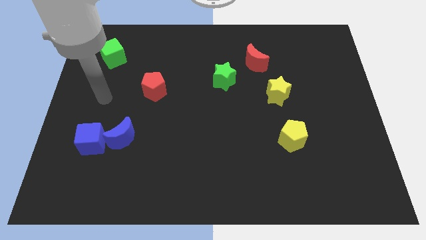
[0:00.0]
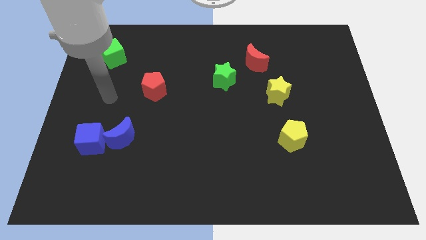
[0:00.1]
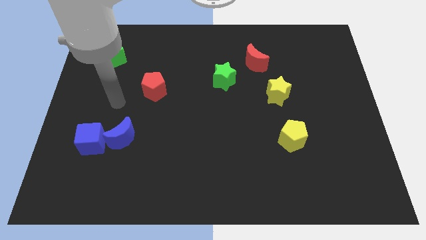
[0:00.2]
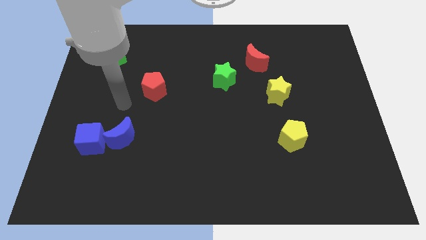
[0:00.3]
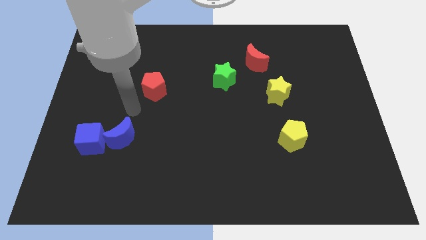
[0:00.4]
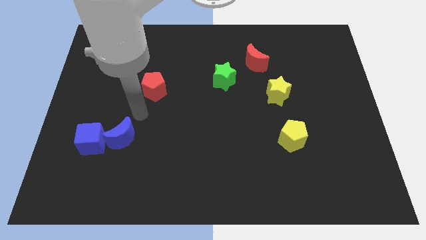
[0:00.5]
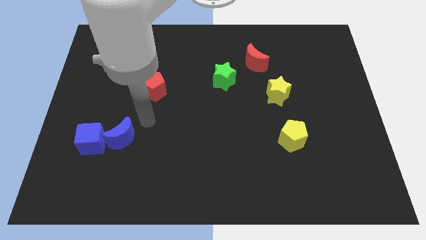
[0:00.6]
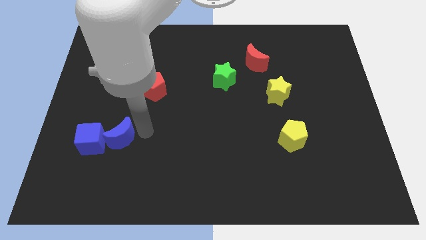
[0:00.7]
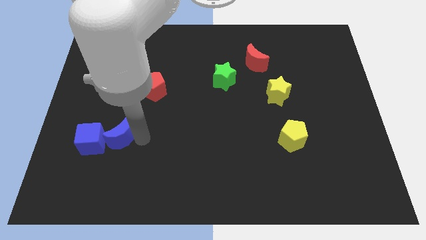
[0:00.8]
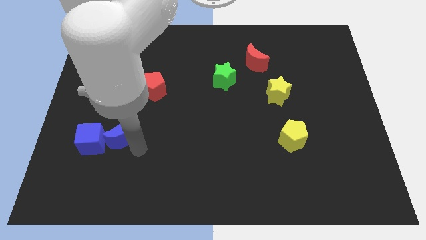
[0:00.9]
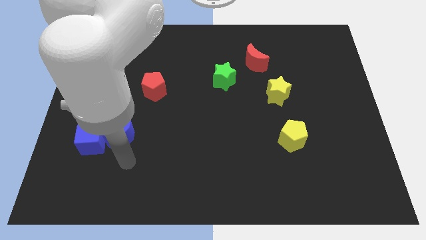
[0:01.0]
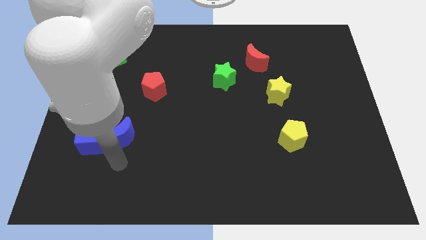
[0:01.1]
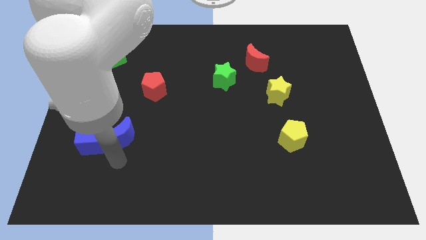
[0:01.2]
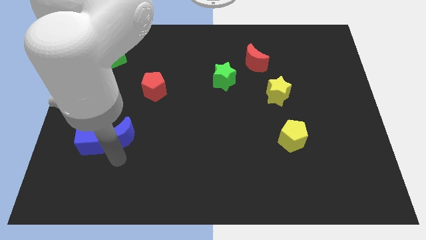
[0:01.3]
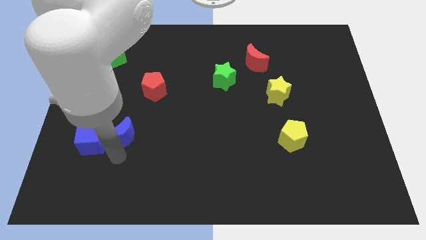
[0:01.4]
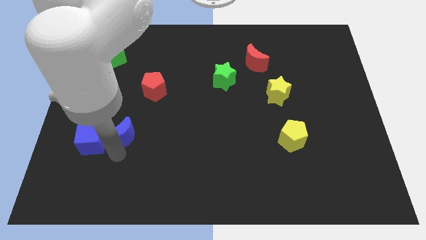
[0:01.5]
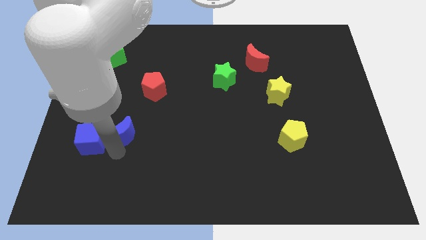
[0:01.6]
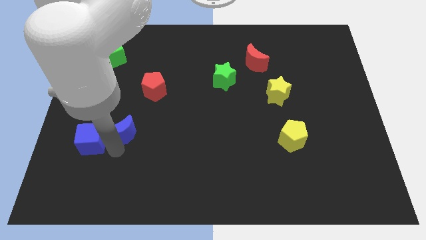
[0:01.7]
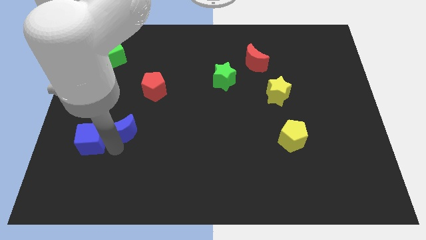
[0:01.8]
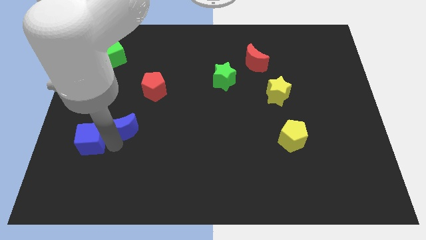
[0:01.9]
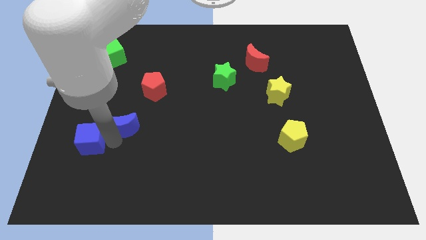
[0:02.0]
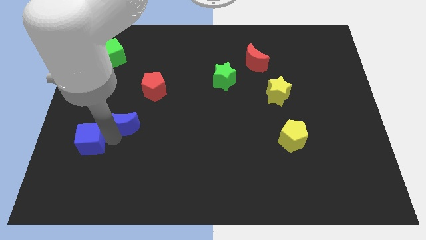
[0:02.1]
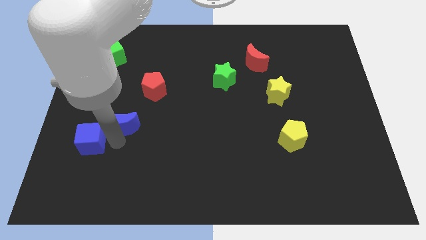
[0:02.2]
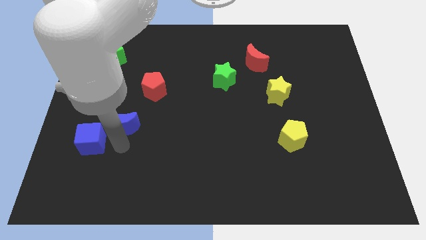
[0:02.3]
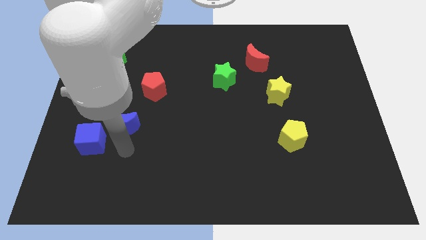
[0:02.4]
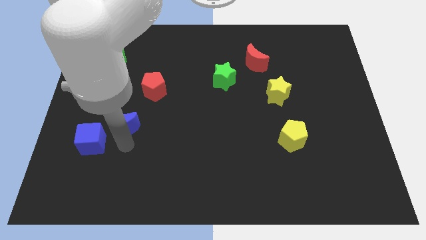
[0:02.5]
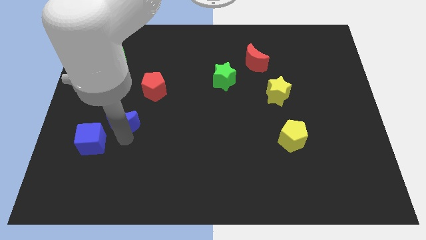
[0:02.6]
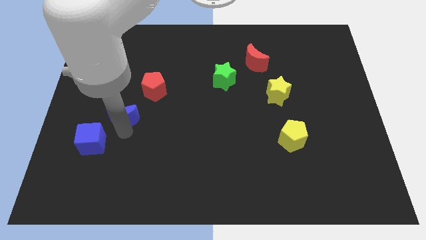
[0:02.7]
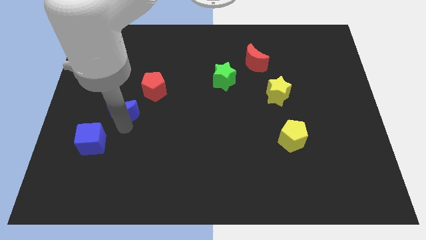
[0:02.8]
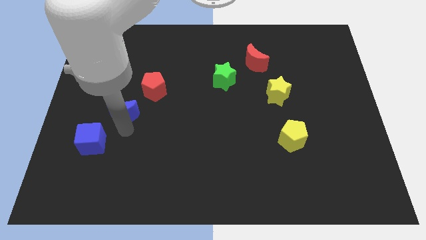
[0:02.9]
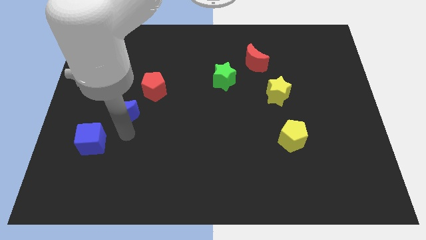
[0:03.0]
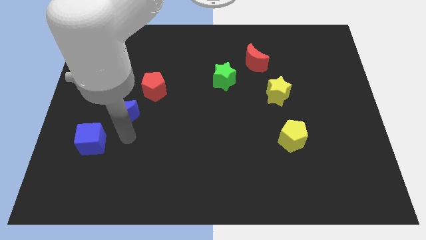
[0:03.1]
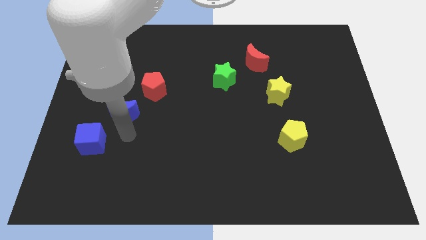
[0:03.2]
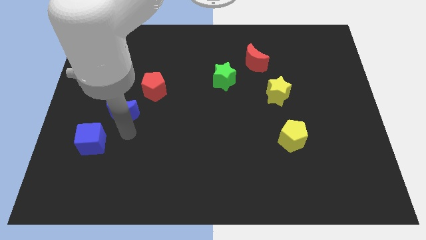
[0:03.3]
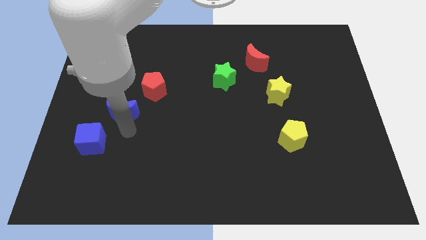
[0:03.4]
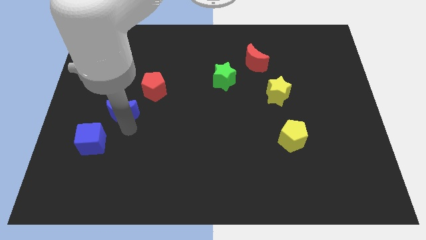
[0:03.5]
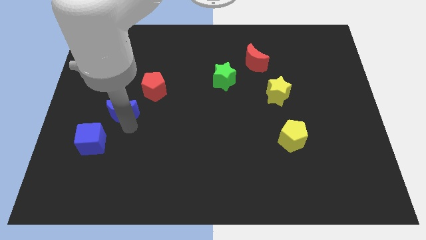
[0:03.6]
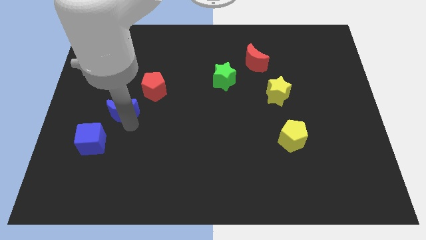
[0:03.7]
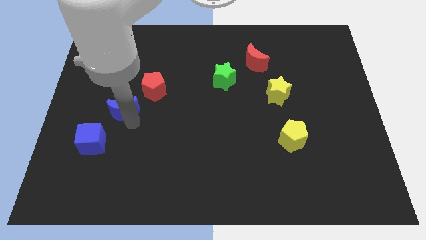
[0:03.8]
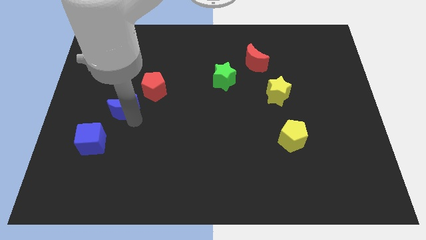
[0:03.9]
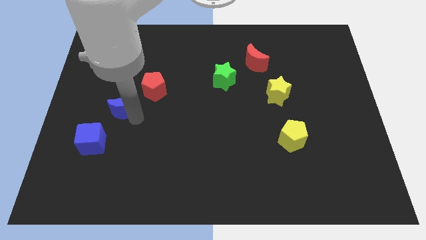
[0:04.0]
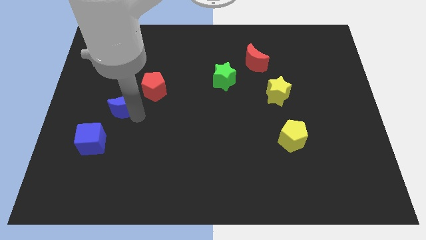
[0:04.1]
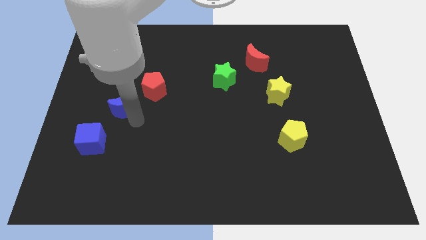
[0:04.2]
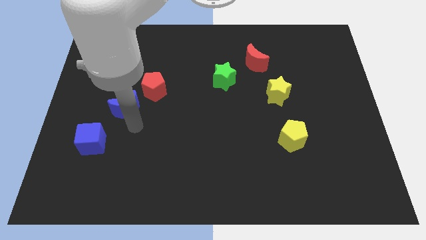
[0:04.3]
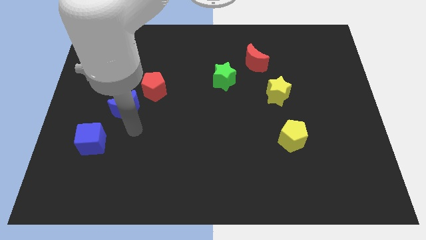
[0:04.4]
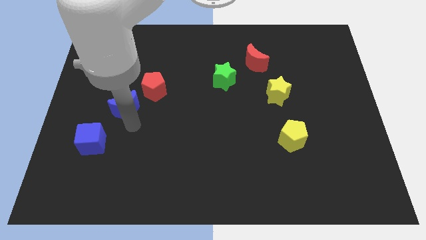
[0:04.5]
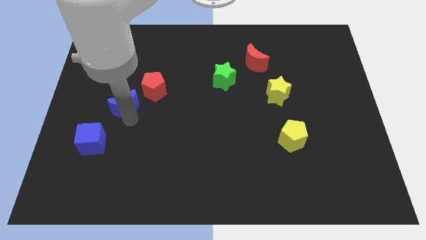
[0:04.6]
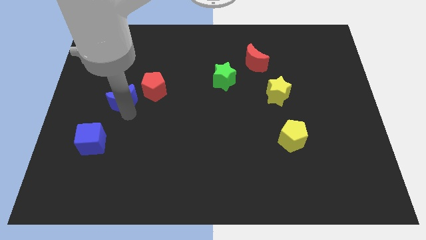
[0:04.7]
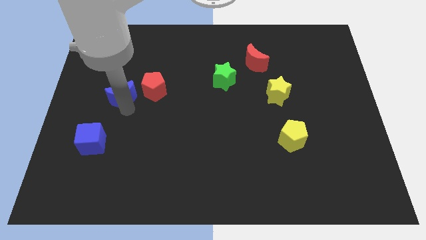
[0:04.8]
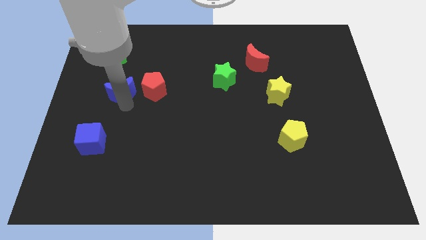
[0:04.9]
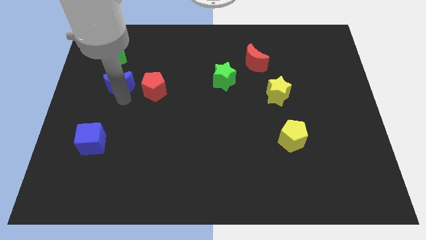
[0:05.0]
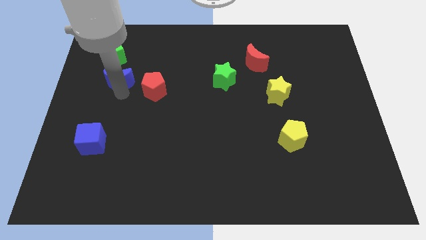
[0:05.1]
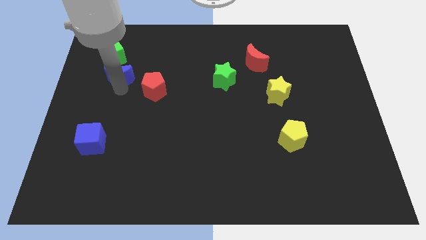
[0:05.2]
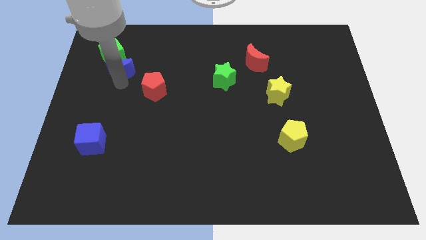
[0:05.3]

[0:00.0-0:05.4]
push the blue moon towards the green cube

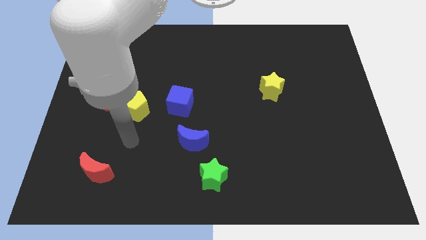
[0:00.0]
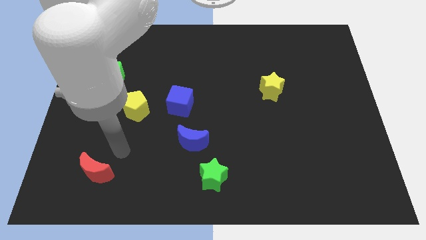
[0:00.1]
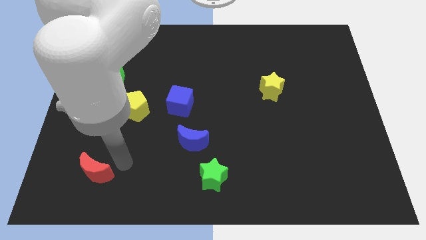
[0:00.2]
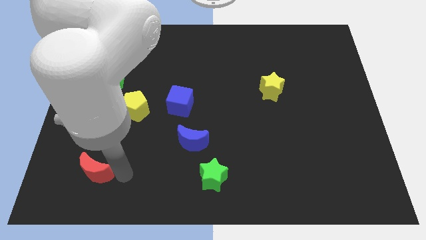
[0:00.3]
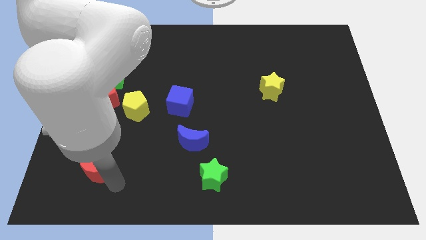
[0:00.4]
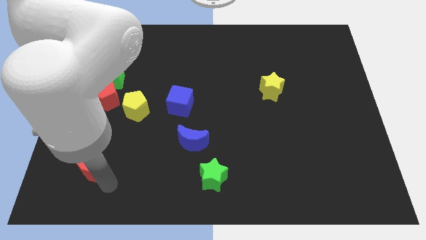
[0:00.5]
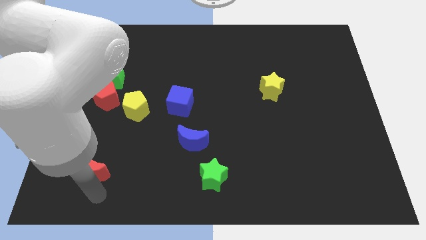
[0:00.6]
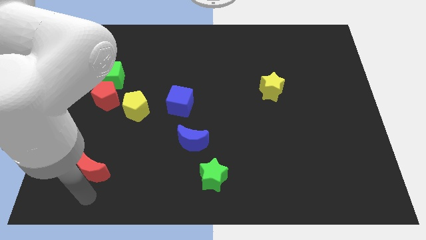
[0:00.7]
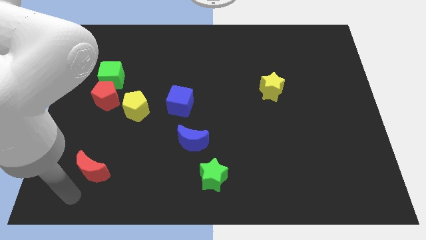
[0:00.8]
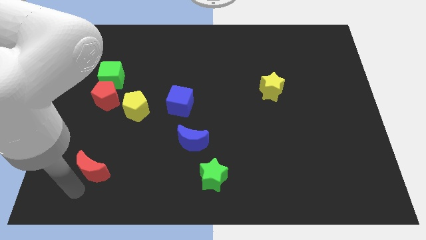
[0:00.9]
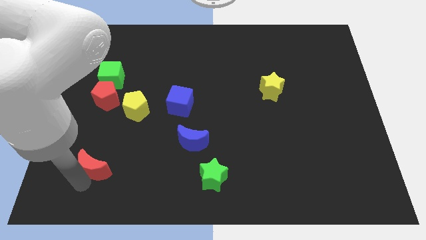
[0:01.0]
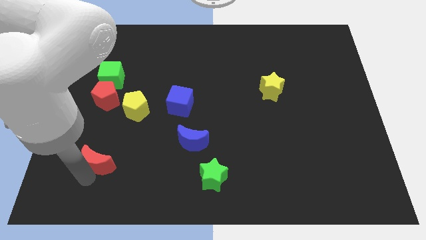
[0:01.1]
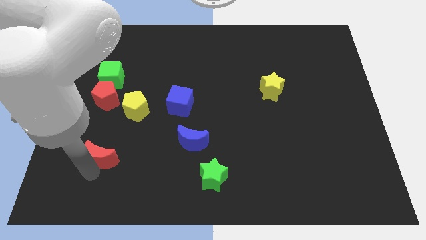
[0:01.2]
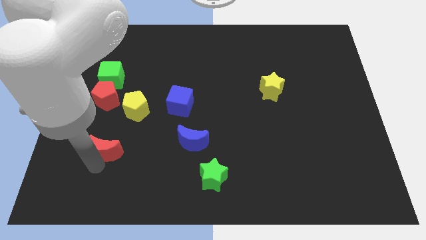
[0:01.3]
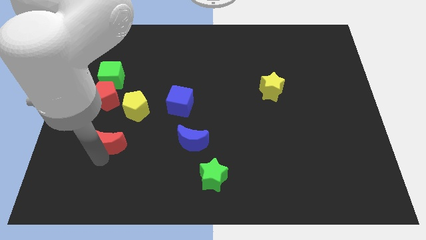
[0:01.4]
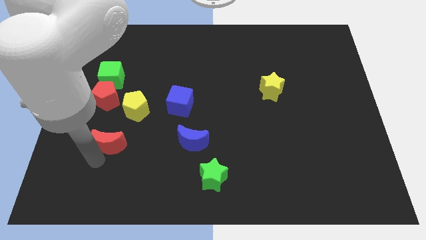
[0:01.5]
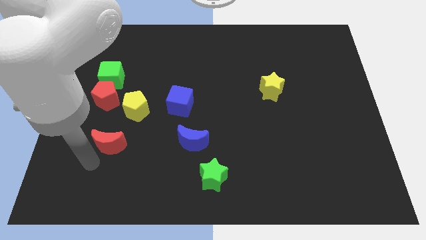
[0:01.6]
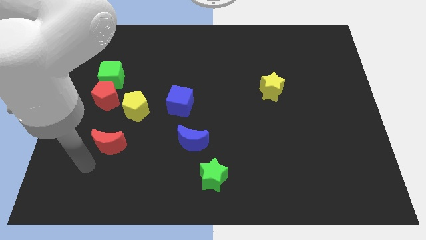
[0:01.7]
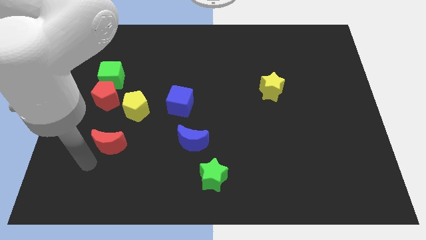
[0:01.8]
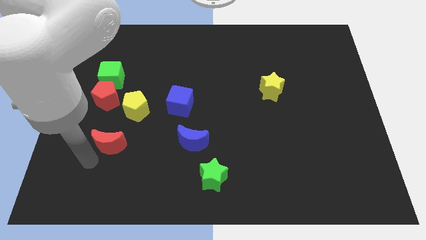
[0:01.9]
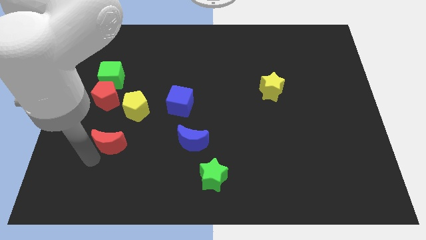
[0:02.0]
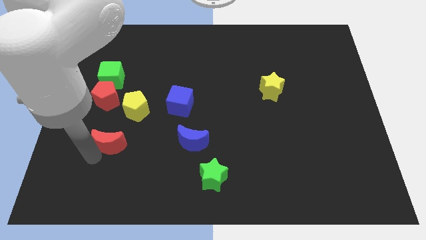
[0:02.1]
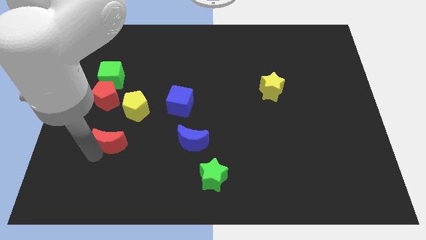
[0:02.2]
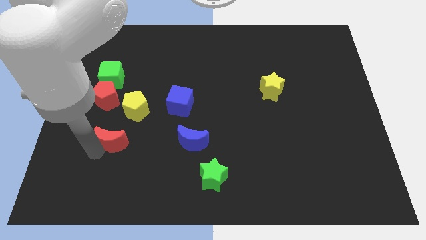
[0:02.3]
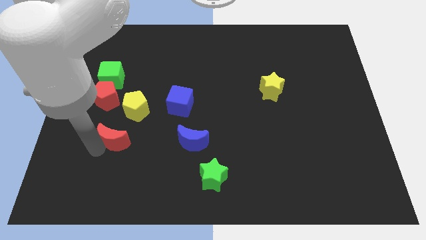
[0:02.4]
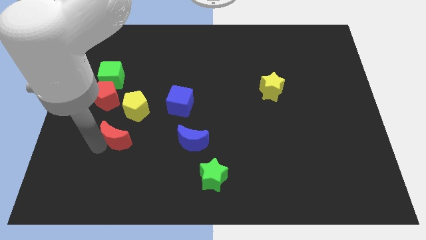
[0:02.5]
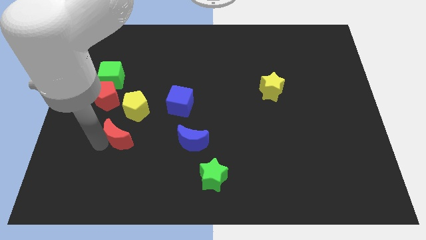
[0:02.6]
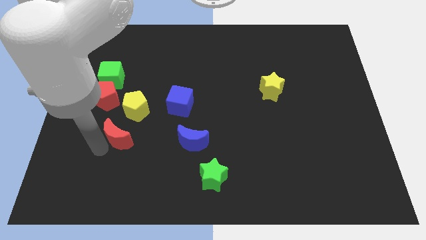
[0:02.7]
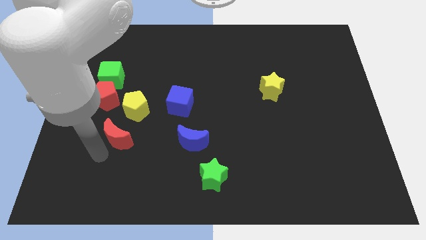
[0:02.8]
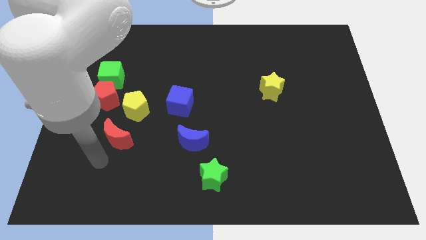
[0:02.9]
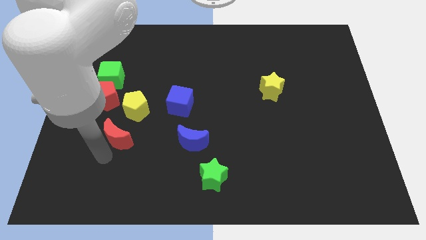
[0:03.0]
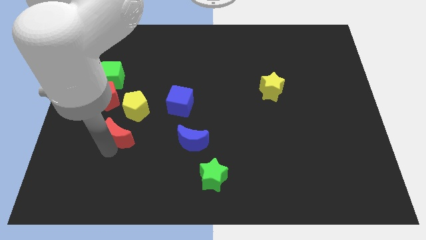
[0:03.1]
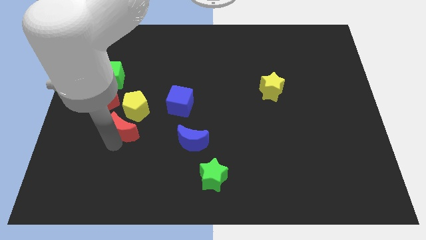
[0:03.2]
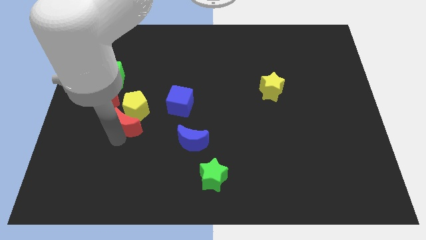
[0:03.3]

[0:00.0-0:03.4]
put the red moon next to the yellow pentagon
